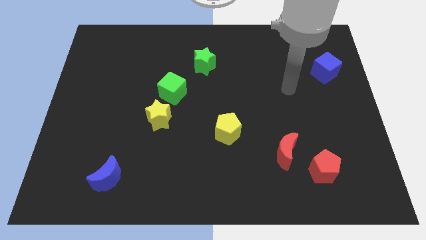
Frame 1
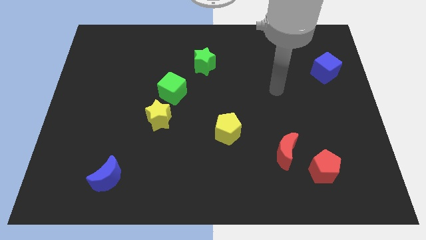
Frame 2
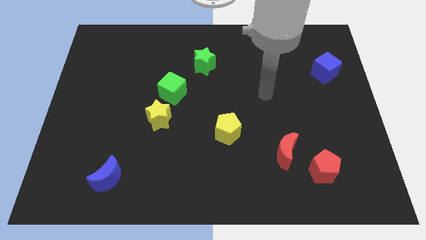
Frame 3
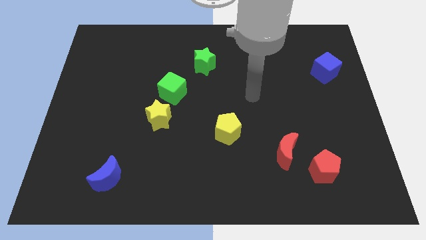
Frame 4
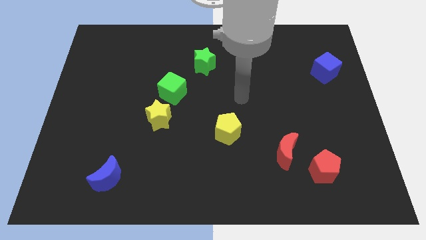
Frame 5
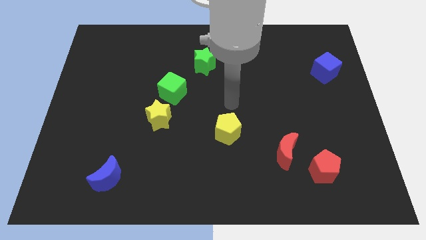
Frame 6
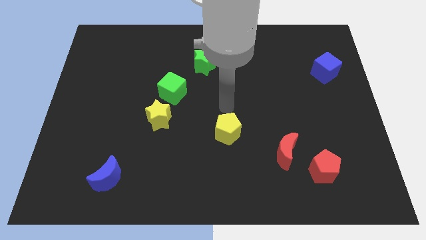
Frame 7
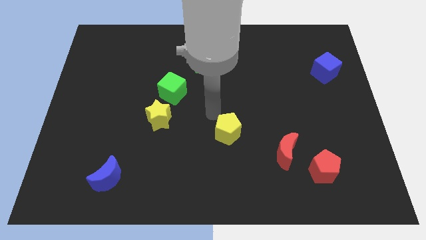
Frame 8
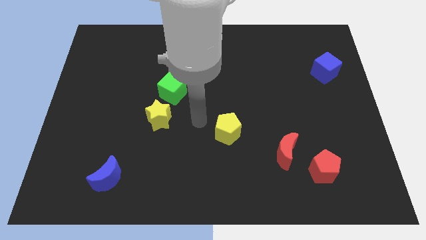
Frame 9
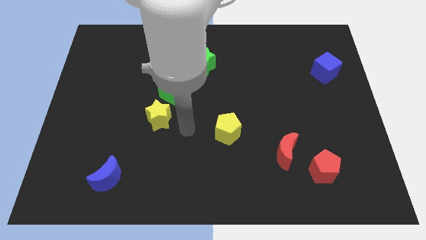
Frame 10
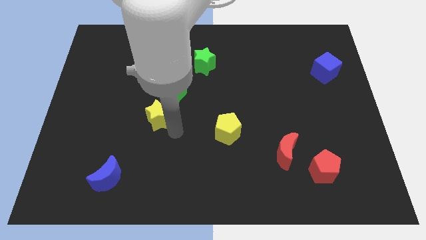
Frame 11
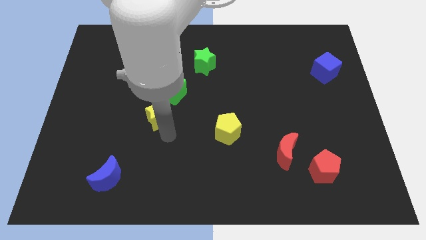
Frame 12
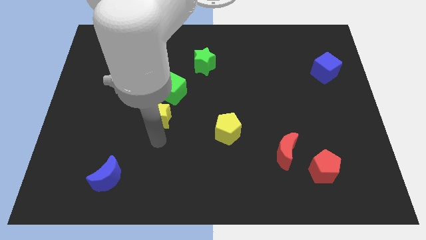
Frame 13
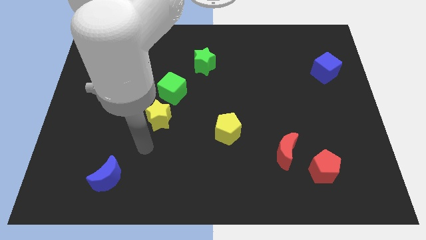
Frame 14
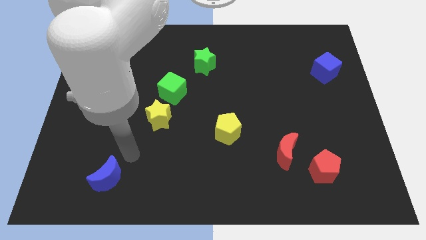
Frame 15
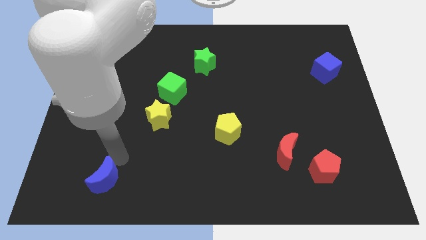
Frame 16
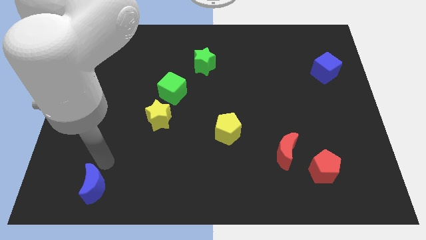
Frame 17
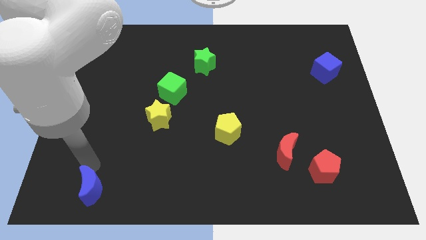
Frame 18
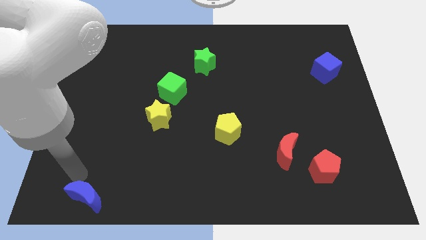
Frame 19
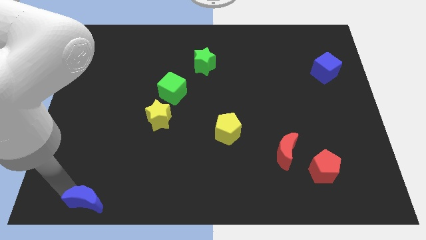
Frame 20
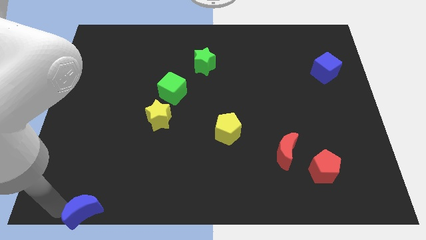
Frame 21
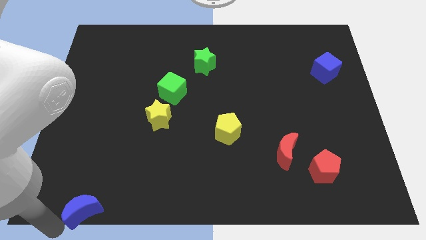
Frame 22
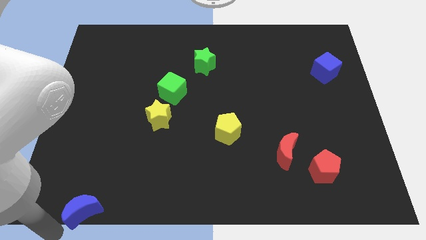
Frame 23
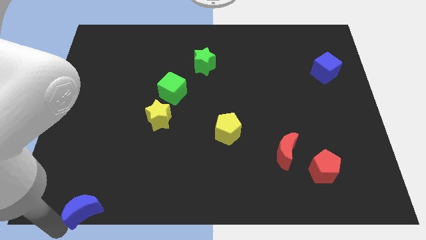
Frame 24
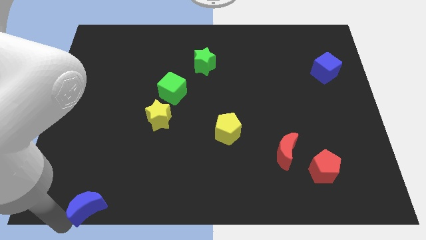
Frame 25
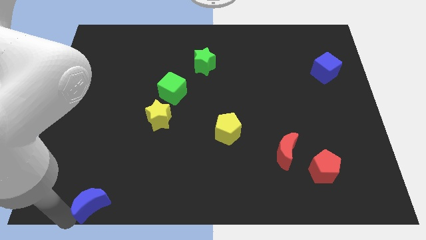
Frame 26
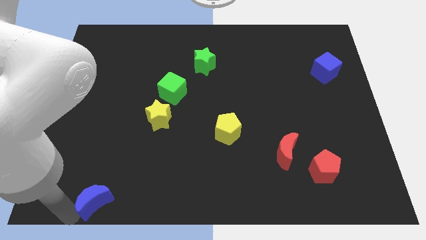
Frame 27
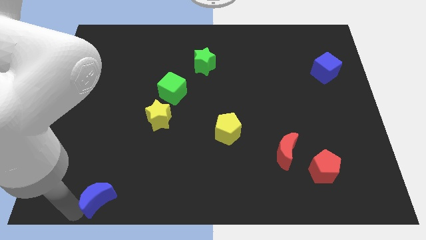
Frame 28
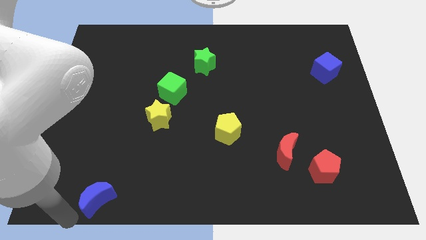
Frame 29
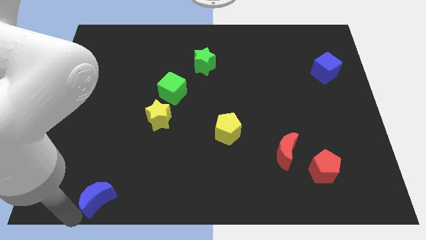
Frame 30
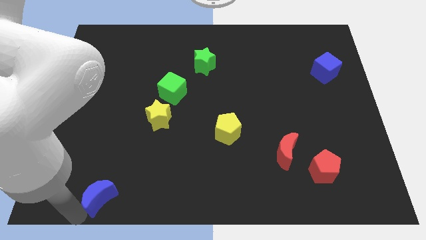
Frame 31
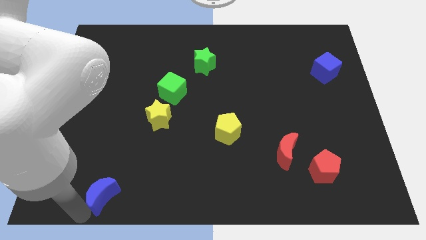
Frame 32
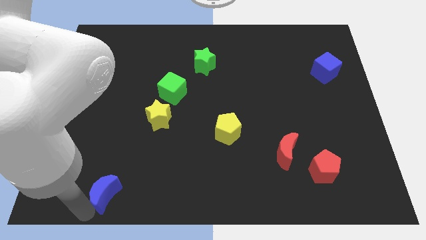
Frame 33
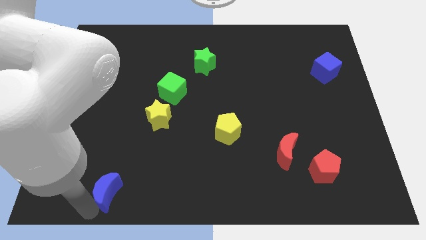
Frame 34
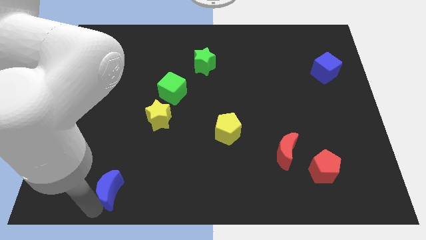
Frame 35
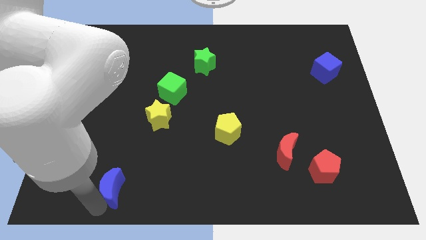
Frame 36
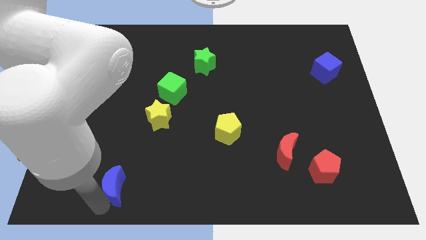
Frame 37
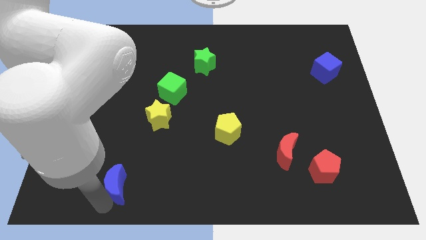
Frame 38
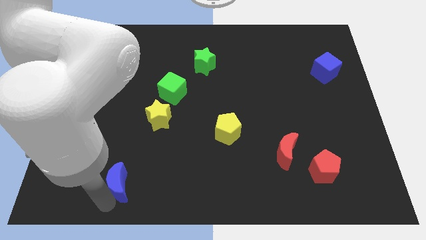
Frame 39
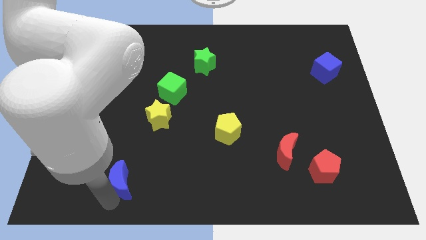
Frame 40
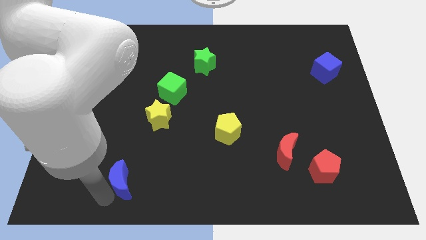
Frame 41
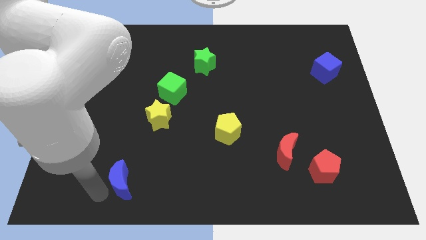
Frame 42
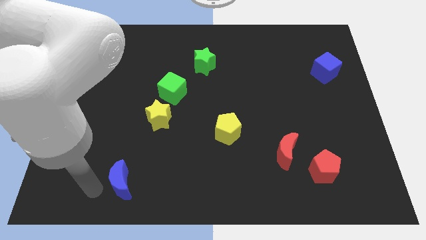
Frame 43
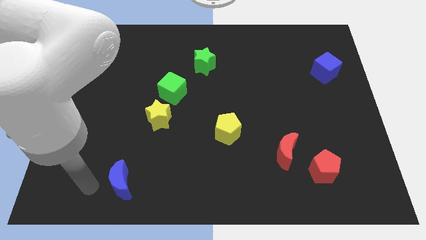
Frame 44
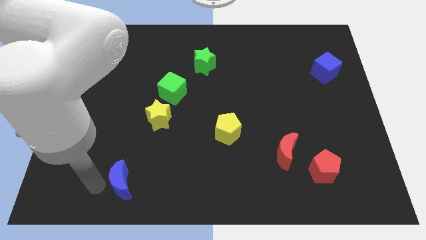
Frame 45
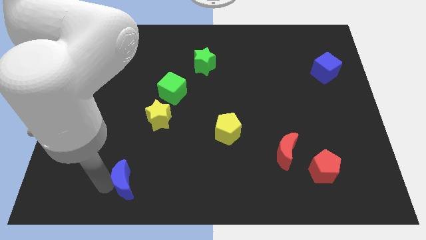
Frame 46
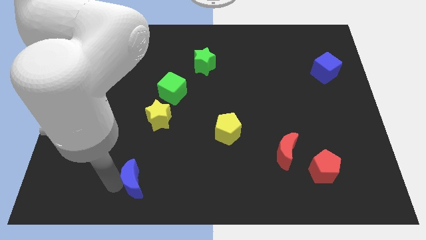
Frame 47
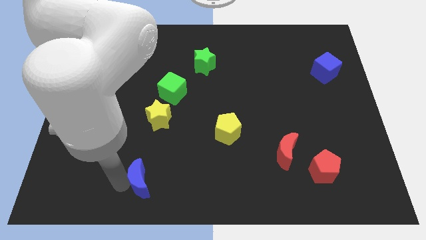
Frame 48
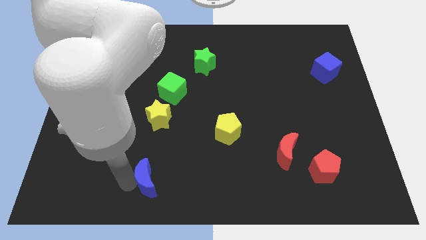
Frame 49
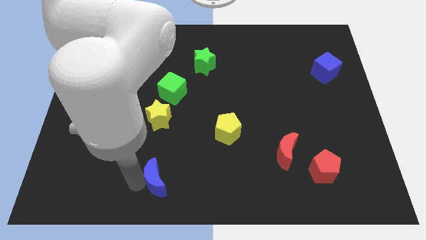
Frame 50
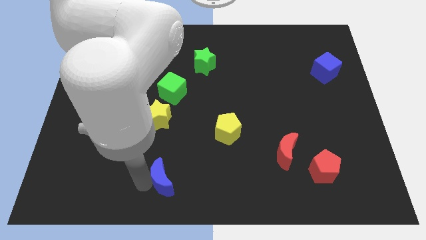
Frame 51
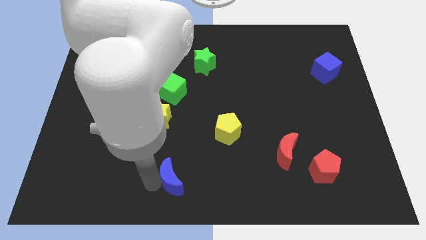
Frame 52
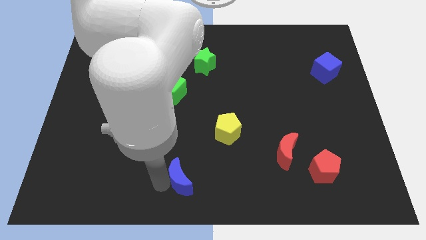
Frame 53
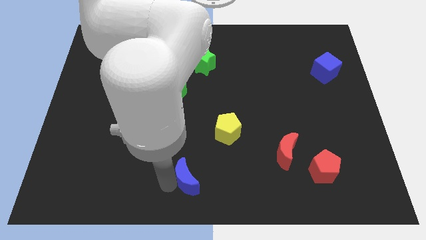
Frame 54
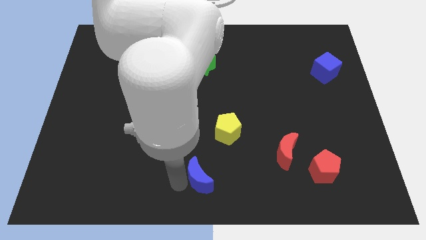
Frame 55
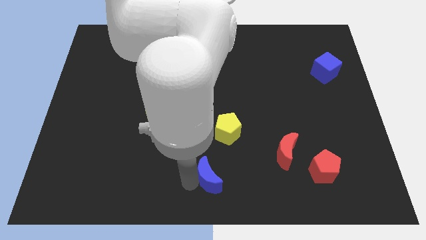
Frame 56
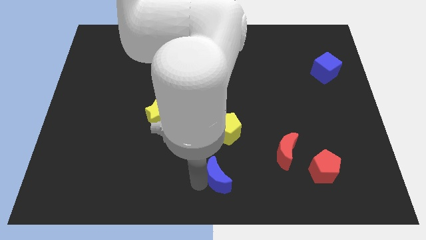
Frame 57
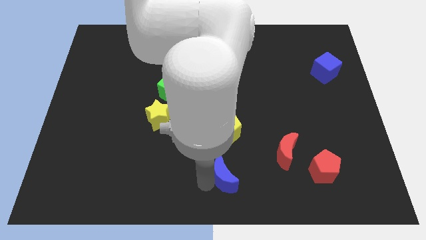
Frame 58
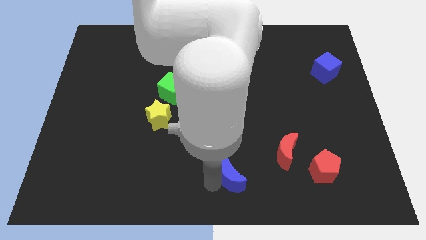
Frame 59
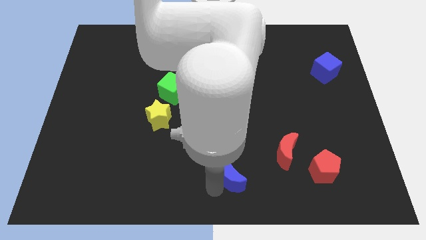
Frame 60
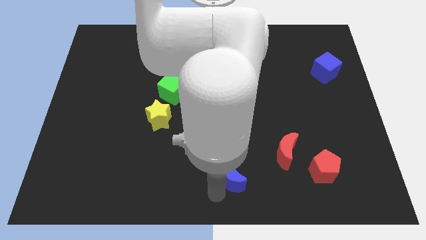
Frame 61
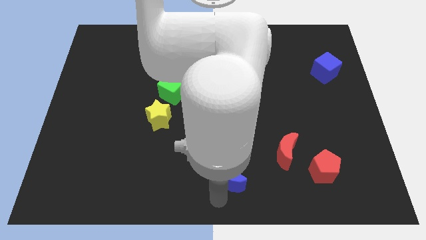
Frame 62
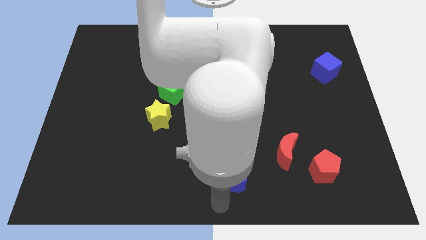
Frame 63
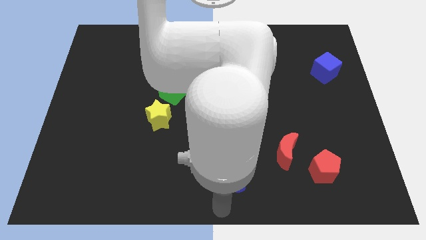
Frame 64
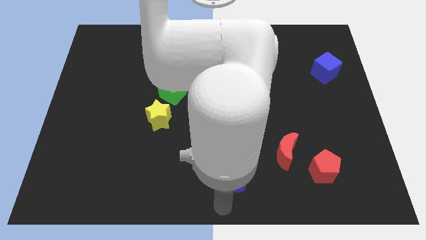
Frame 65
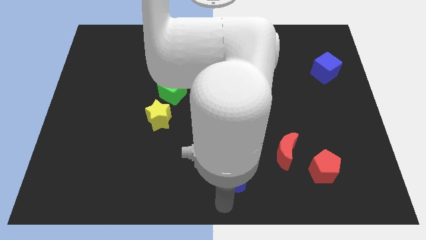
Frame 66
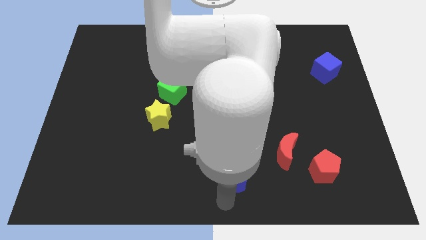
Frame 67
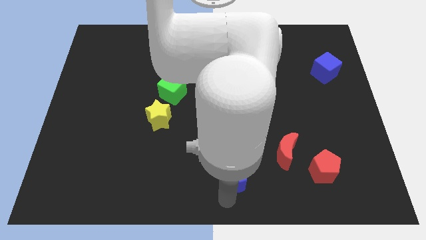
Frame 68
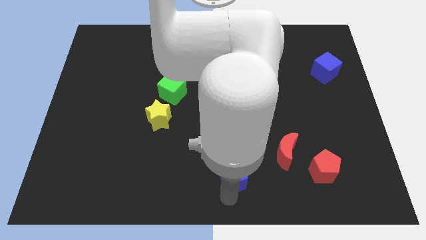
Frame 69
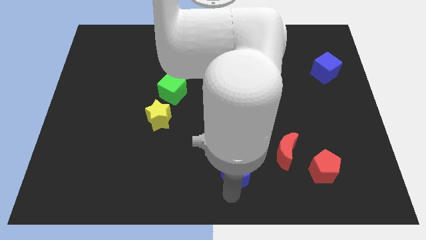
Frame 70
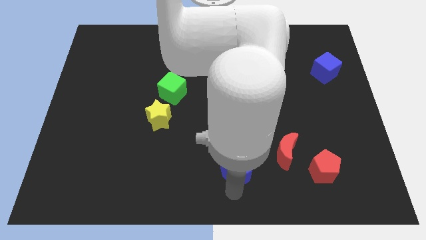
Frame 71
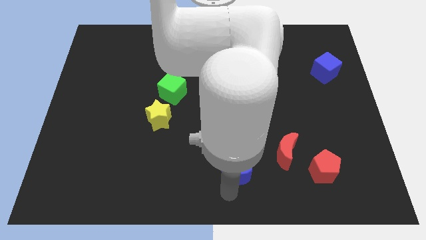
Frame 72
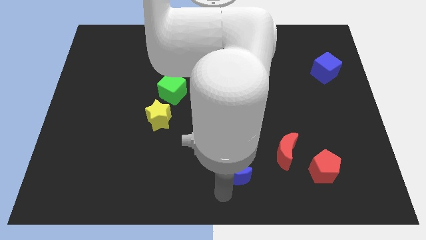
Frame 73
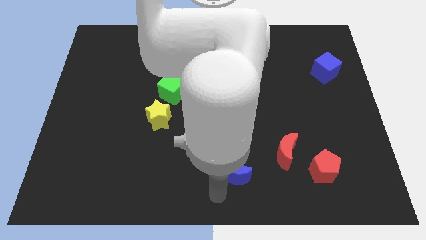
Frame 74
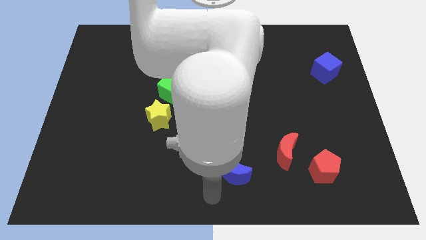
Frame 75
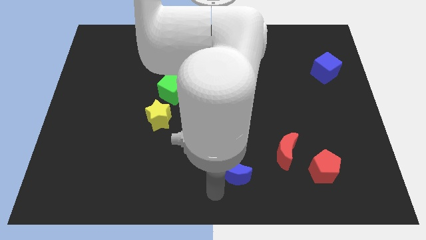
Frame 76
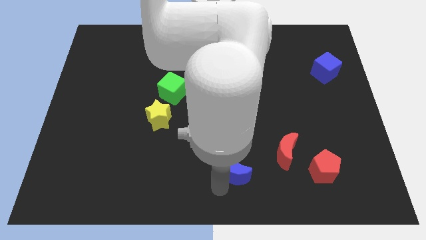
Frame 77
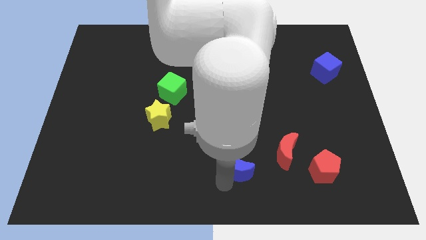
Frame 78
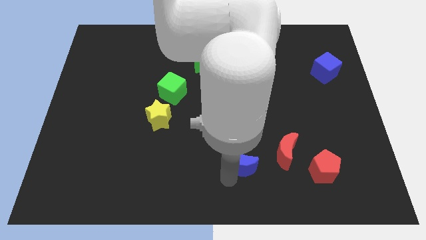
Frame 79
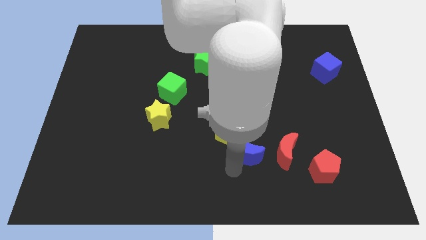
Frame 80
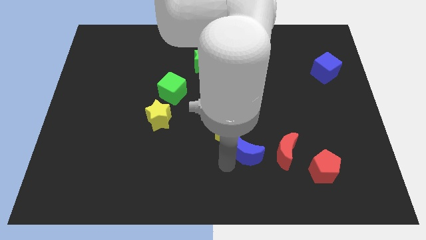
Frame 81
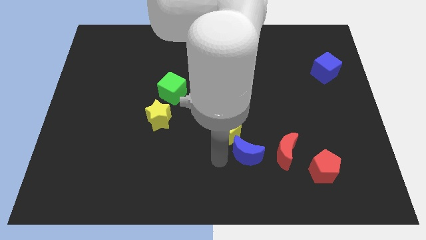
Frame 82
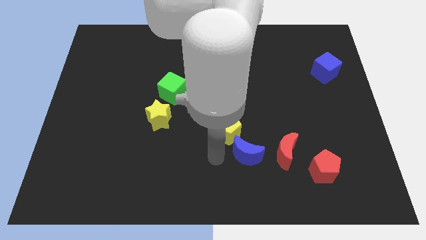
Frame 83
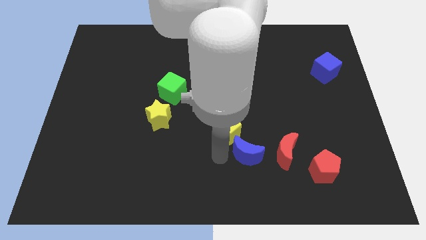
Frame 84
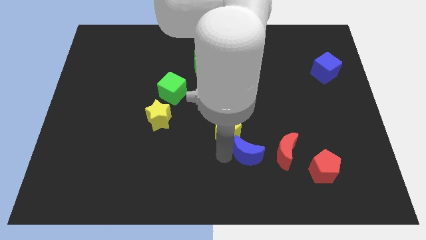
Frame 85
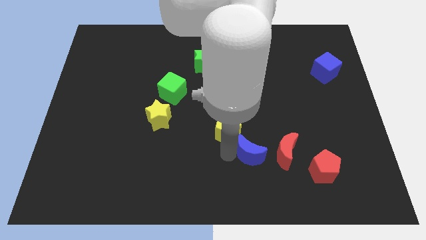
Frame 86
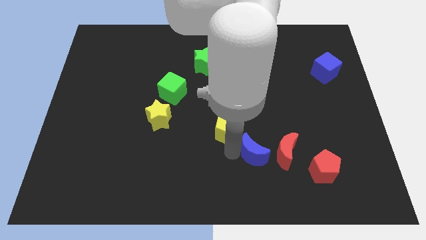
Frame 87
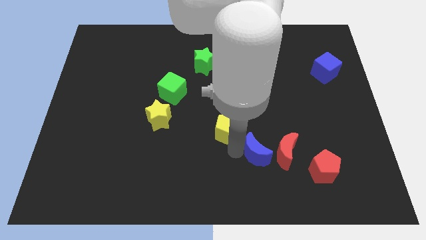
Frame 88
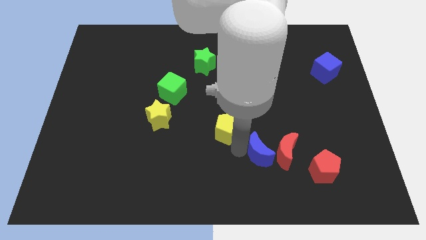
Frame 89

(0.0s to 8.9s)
slide the blue moon to the red moon
